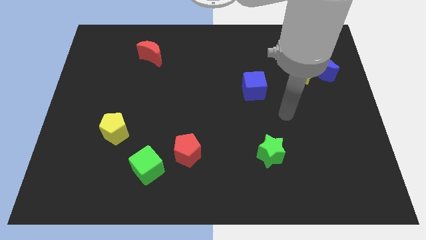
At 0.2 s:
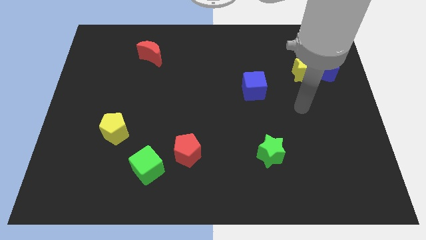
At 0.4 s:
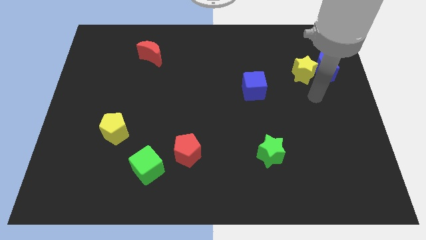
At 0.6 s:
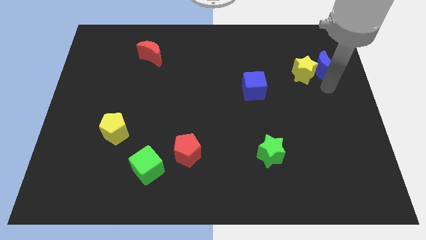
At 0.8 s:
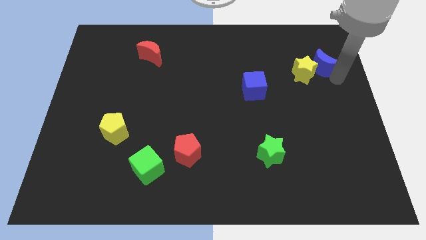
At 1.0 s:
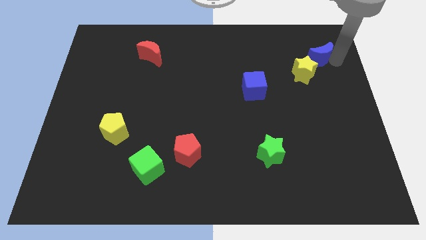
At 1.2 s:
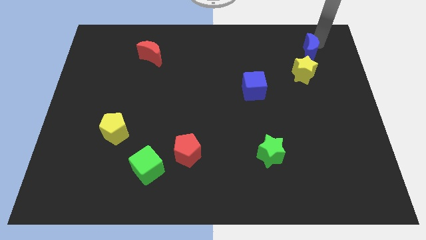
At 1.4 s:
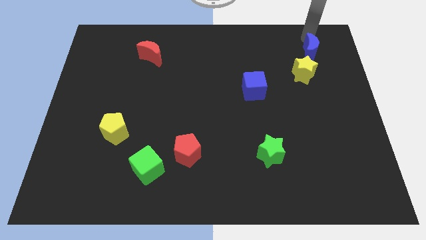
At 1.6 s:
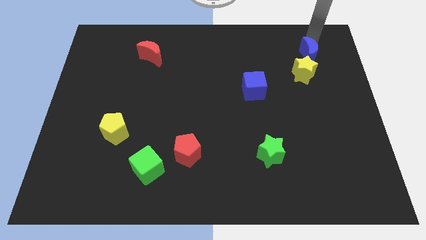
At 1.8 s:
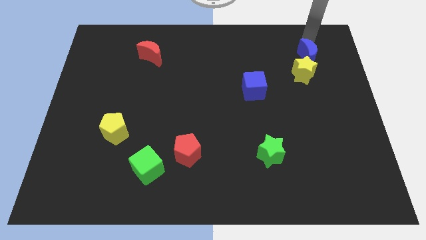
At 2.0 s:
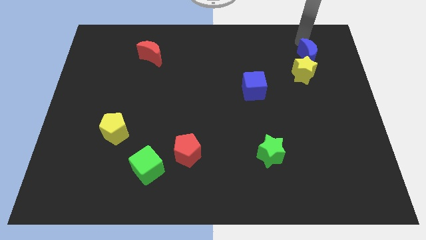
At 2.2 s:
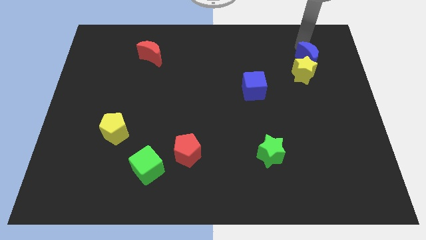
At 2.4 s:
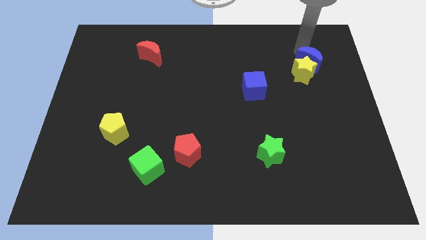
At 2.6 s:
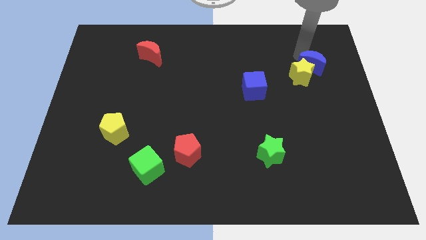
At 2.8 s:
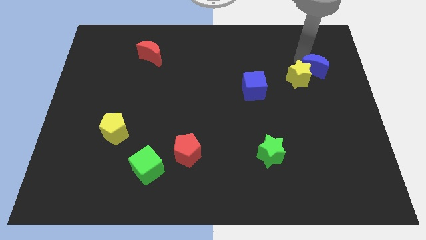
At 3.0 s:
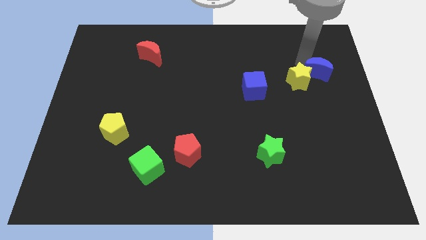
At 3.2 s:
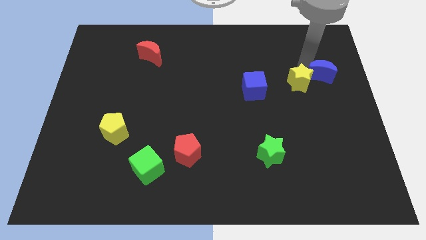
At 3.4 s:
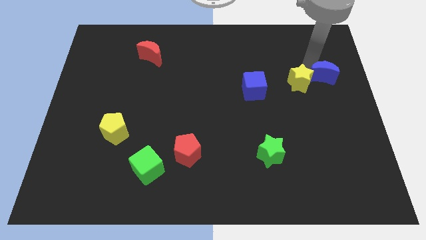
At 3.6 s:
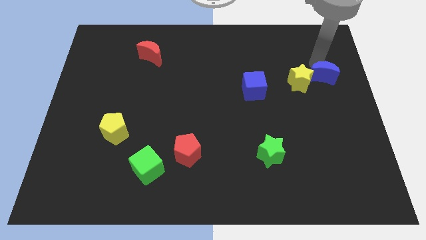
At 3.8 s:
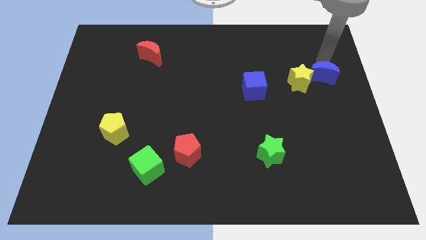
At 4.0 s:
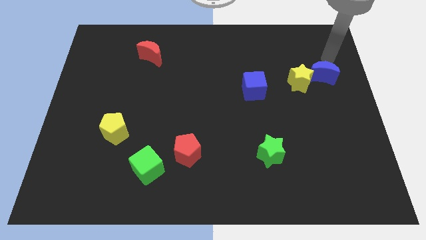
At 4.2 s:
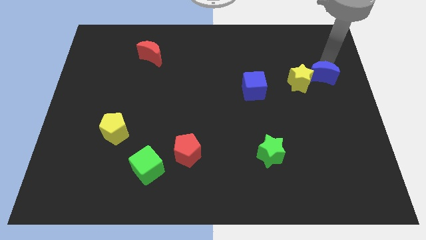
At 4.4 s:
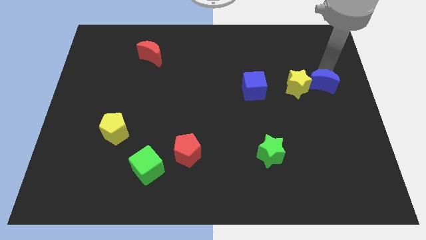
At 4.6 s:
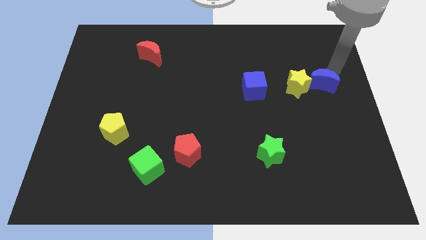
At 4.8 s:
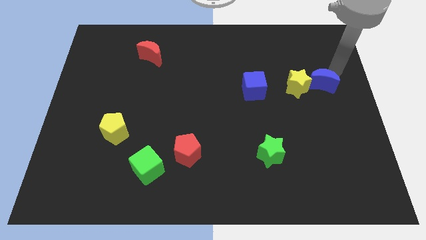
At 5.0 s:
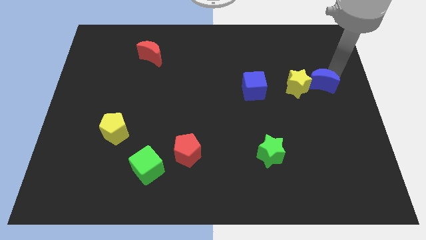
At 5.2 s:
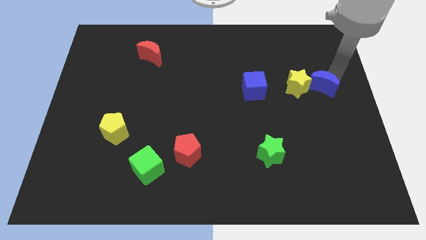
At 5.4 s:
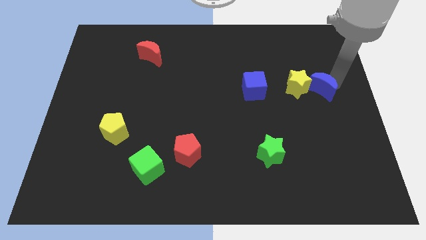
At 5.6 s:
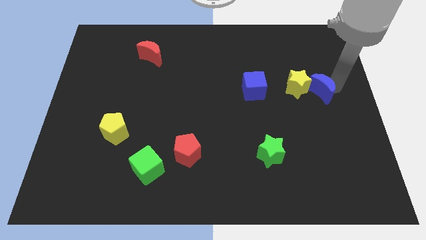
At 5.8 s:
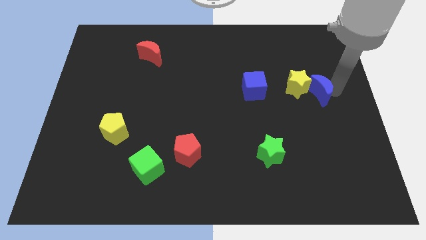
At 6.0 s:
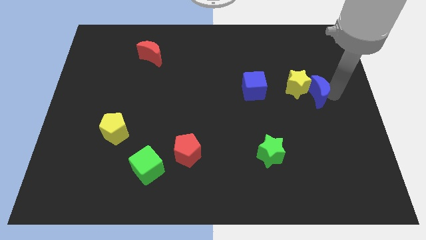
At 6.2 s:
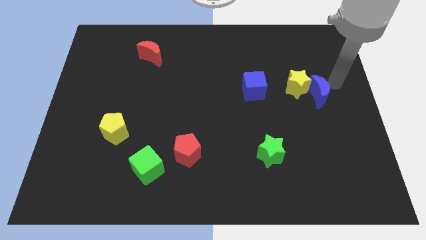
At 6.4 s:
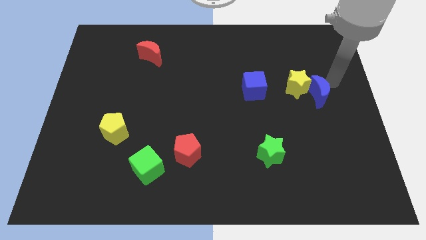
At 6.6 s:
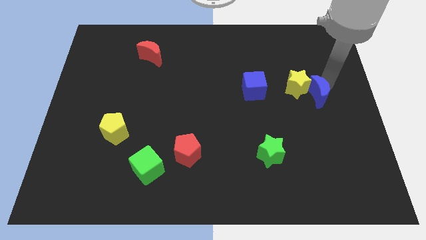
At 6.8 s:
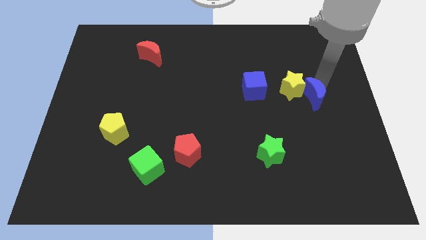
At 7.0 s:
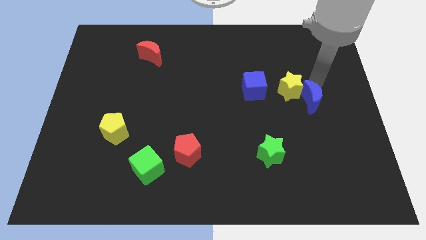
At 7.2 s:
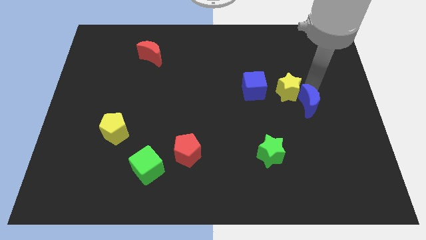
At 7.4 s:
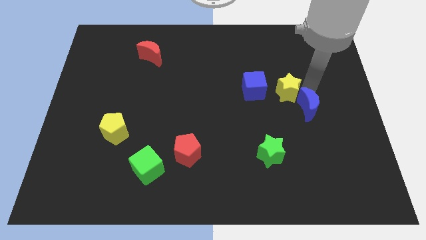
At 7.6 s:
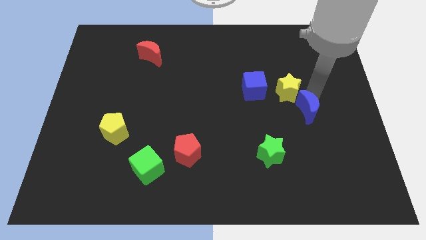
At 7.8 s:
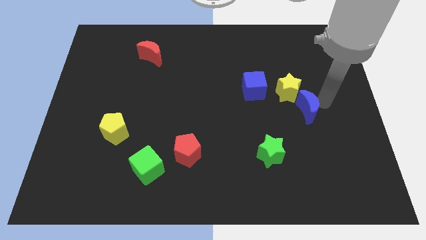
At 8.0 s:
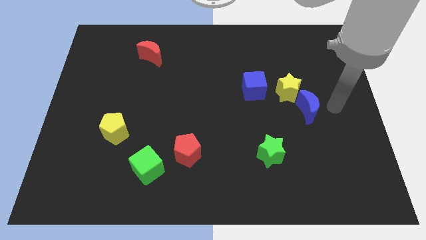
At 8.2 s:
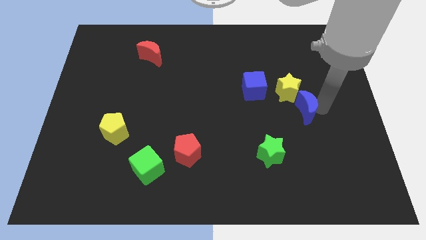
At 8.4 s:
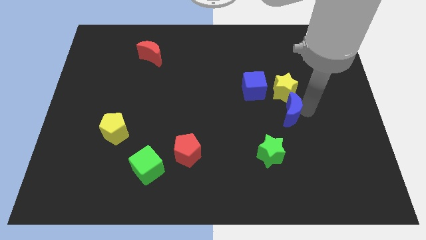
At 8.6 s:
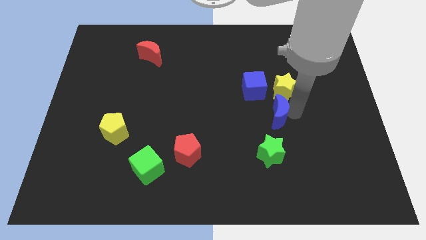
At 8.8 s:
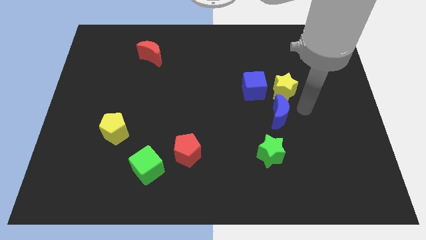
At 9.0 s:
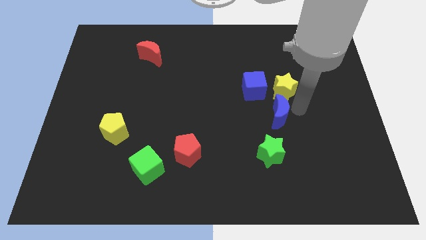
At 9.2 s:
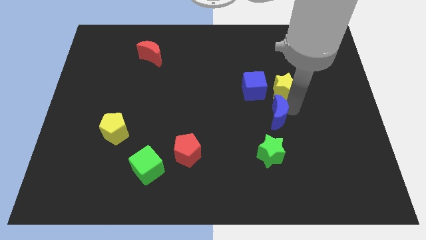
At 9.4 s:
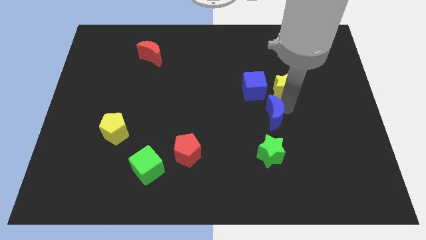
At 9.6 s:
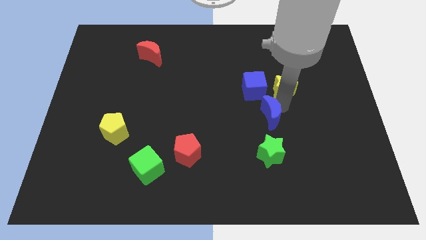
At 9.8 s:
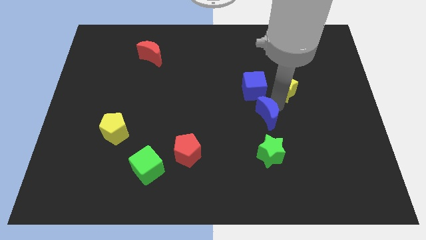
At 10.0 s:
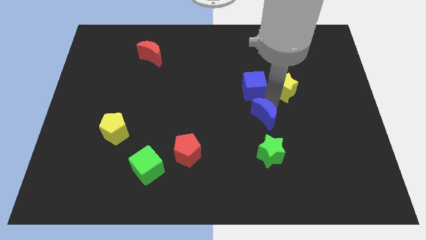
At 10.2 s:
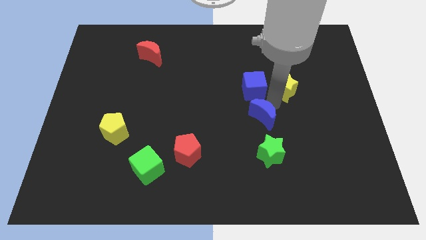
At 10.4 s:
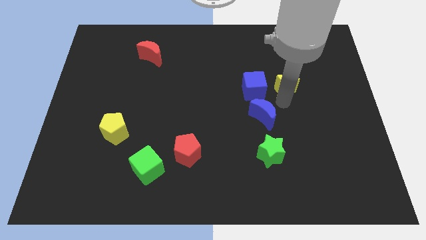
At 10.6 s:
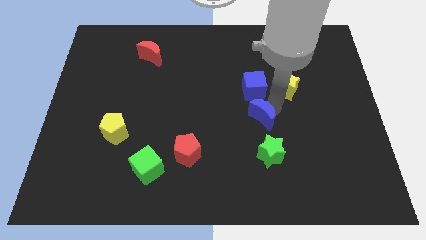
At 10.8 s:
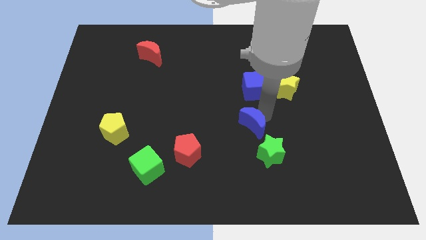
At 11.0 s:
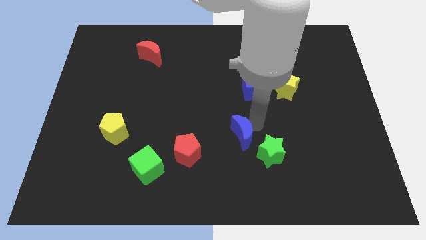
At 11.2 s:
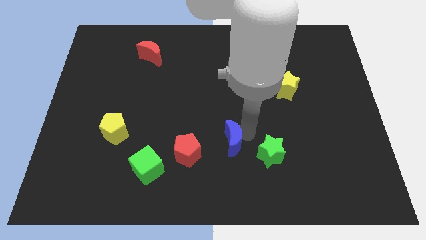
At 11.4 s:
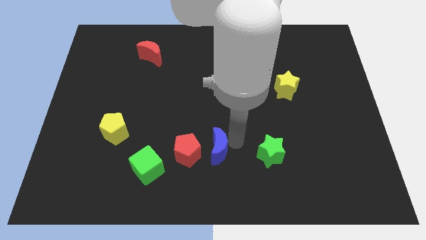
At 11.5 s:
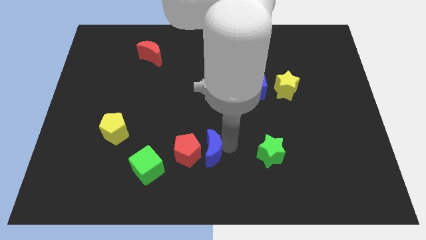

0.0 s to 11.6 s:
slide the blue moon towards the red pentagon

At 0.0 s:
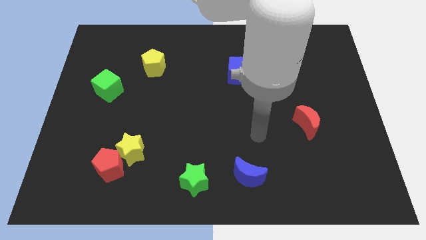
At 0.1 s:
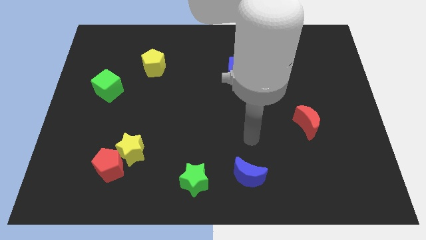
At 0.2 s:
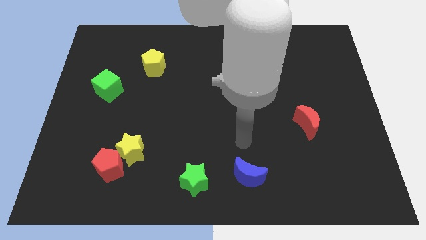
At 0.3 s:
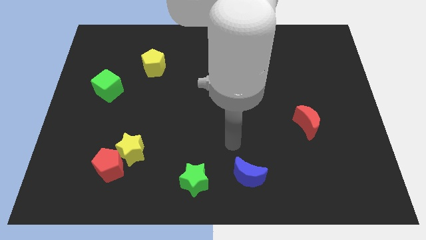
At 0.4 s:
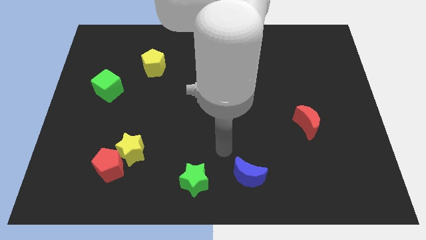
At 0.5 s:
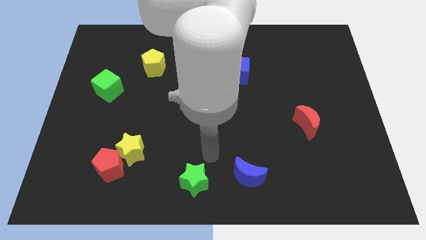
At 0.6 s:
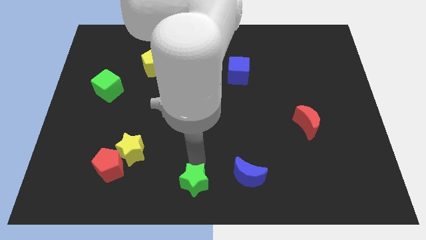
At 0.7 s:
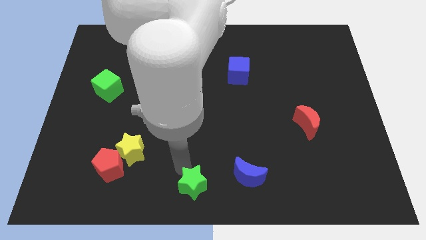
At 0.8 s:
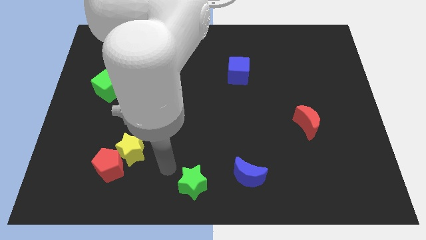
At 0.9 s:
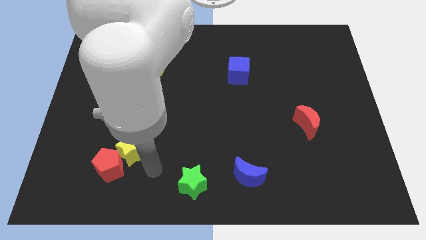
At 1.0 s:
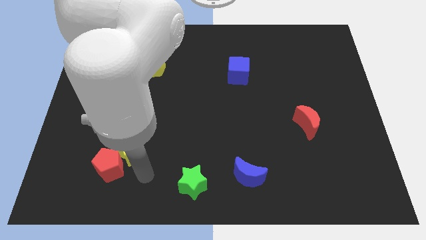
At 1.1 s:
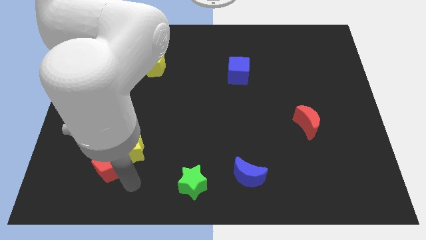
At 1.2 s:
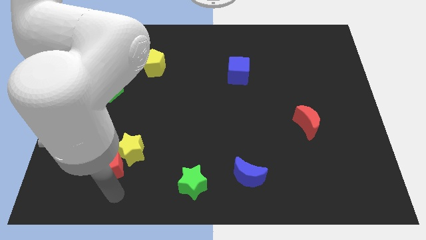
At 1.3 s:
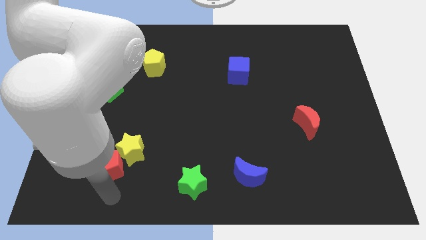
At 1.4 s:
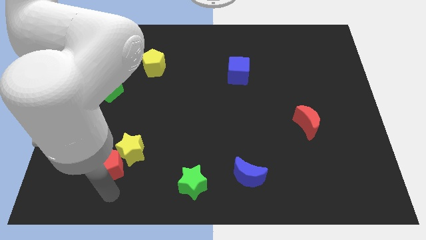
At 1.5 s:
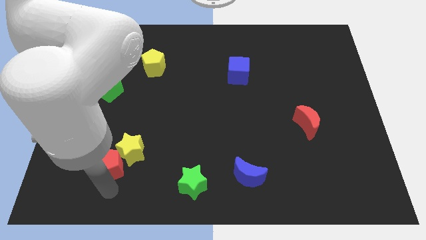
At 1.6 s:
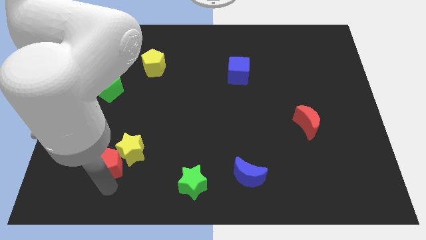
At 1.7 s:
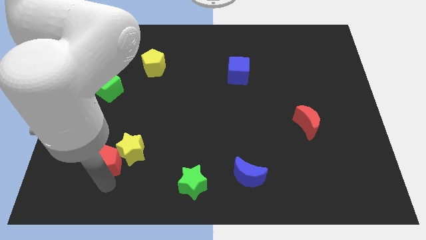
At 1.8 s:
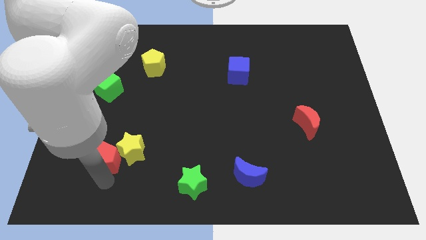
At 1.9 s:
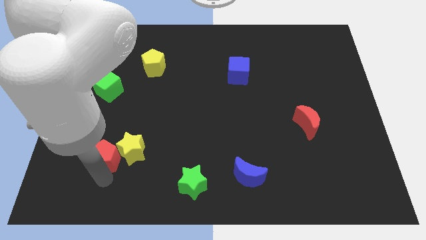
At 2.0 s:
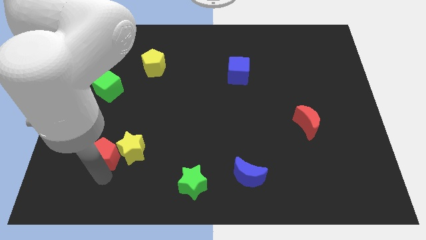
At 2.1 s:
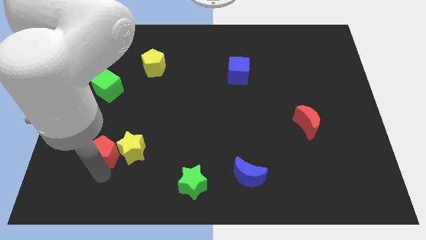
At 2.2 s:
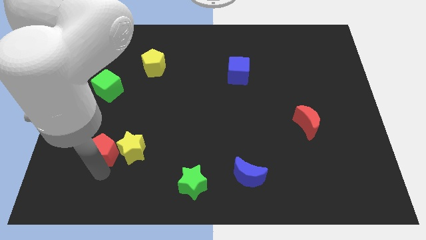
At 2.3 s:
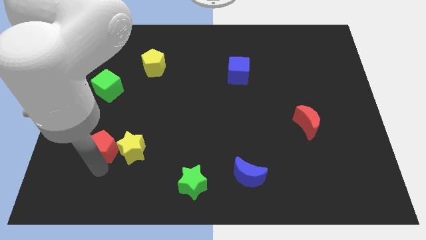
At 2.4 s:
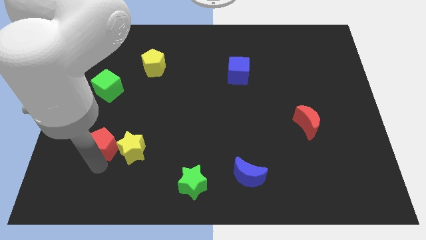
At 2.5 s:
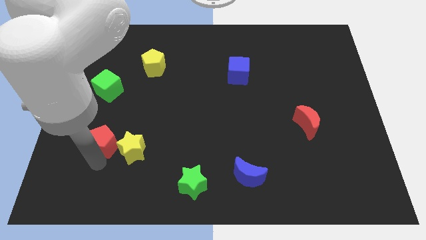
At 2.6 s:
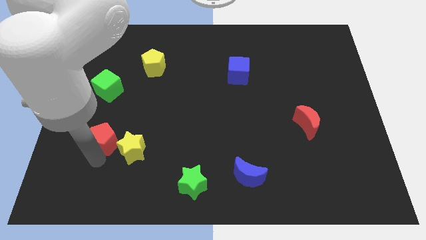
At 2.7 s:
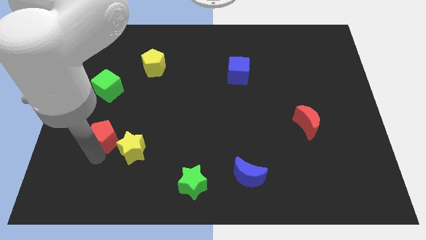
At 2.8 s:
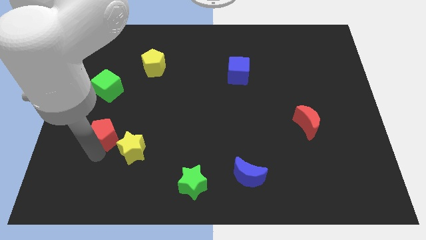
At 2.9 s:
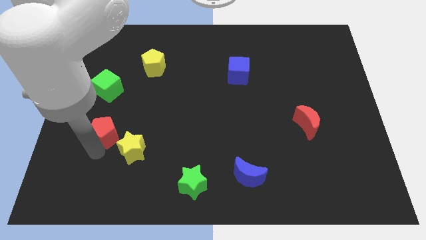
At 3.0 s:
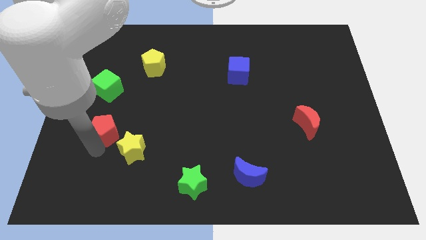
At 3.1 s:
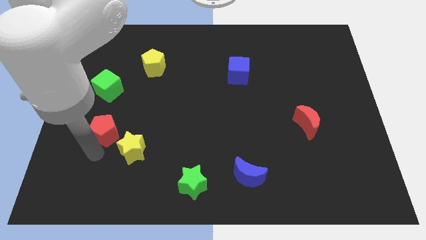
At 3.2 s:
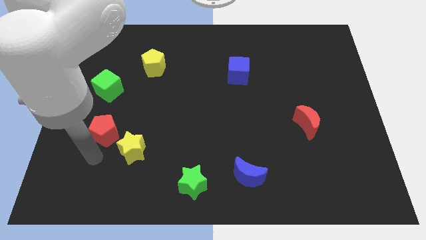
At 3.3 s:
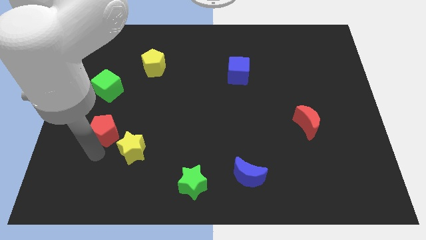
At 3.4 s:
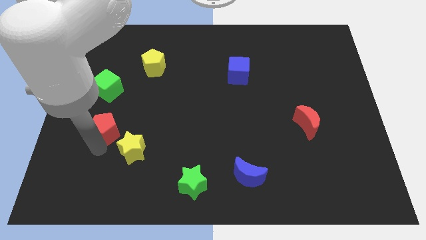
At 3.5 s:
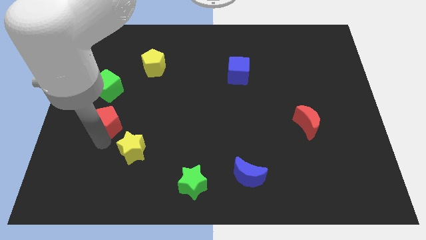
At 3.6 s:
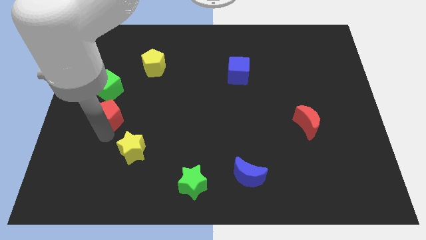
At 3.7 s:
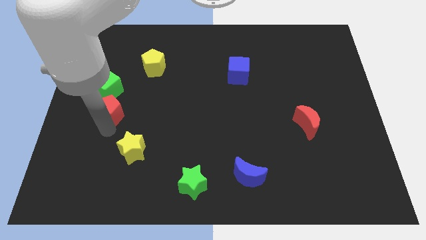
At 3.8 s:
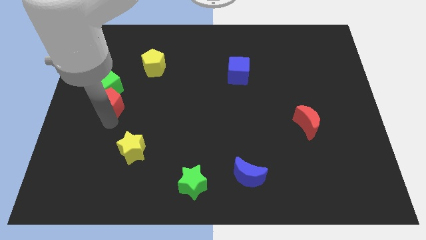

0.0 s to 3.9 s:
move the red pentagon next to the green cube
